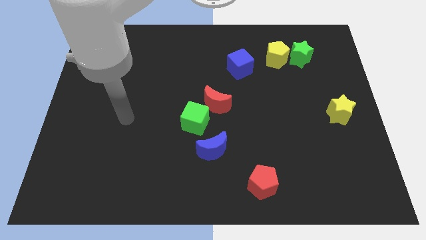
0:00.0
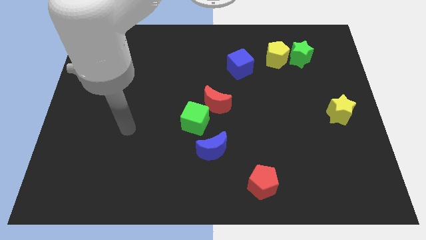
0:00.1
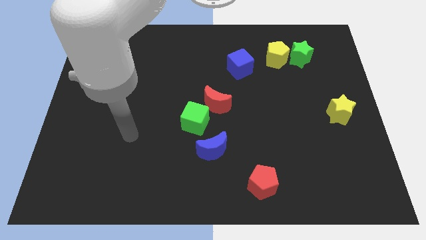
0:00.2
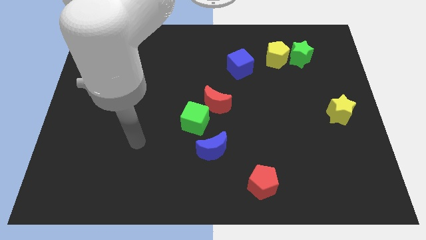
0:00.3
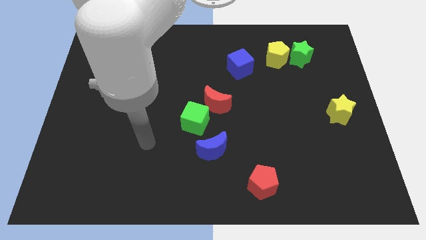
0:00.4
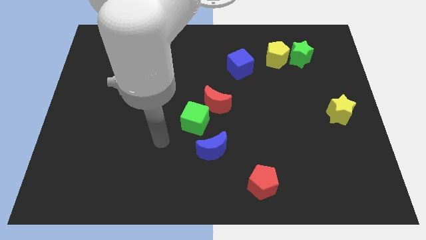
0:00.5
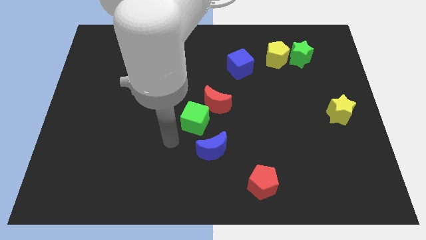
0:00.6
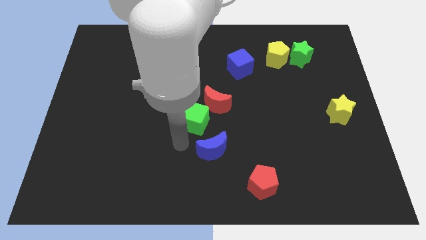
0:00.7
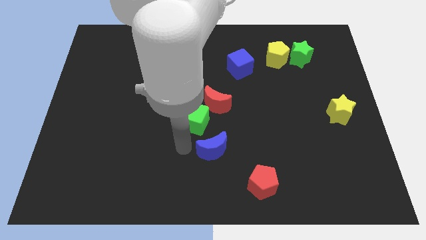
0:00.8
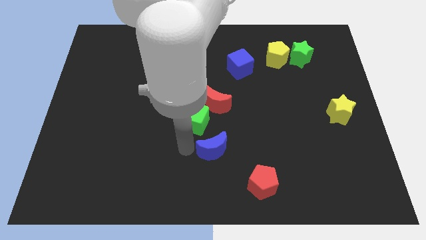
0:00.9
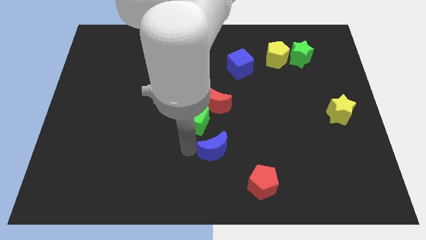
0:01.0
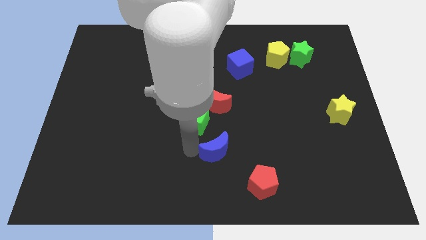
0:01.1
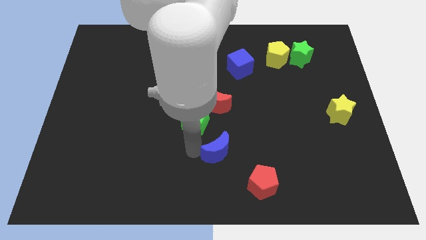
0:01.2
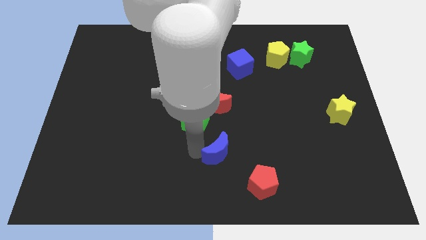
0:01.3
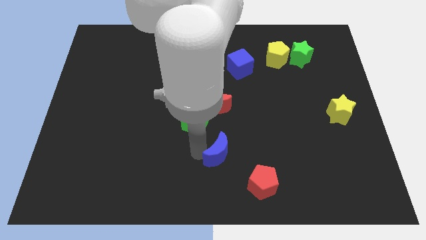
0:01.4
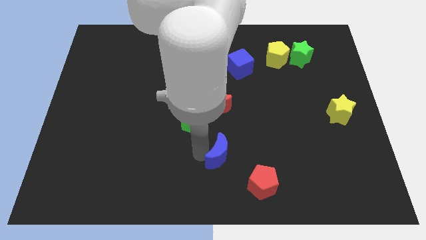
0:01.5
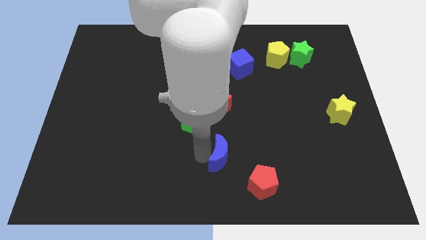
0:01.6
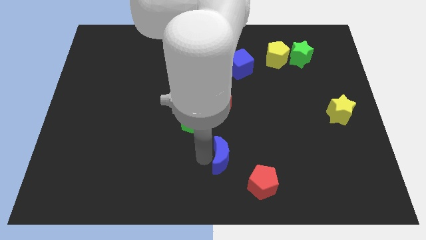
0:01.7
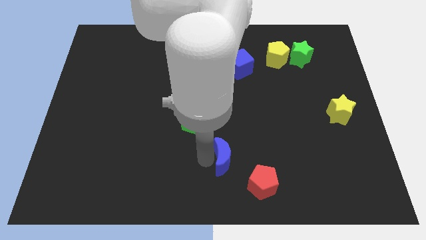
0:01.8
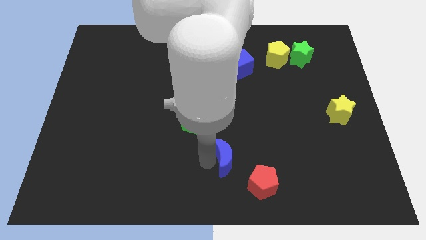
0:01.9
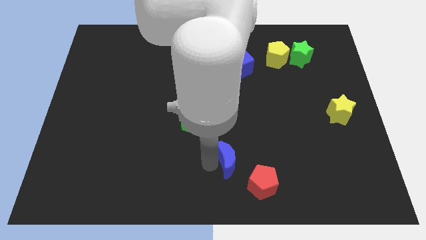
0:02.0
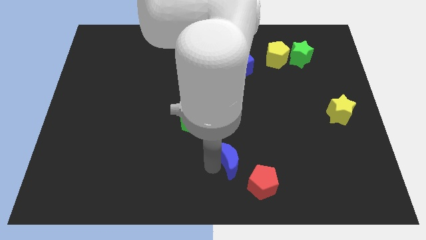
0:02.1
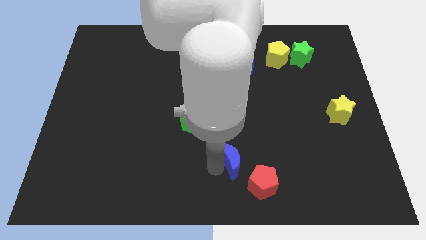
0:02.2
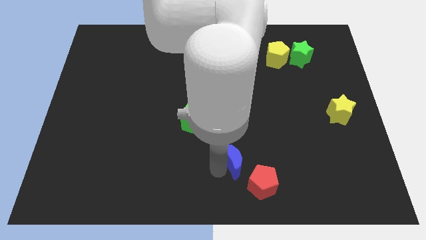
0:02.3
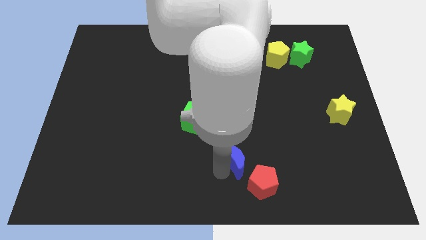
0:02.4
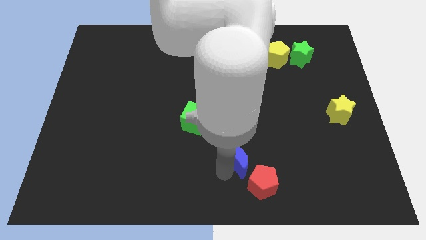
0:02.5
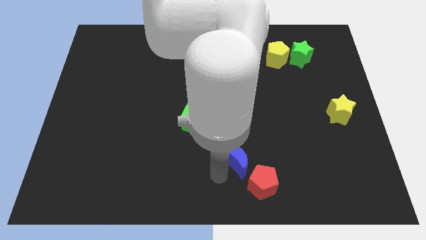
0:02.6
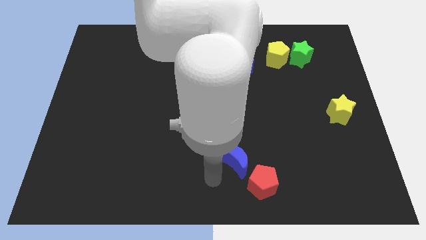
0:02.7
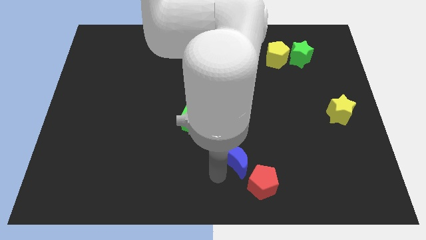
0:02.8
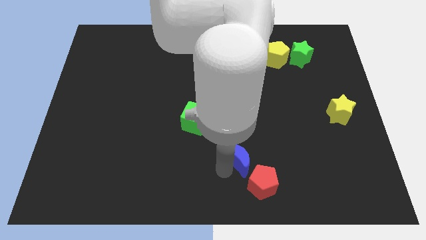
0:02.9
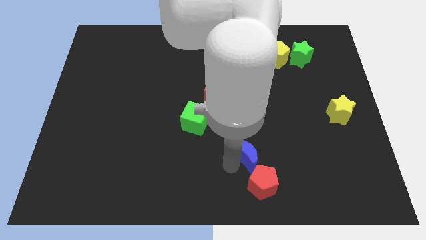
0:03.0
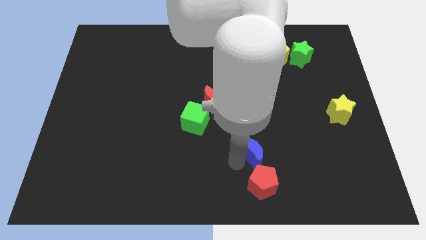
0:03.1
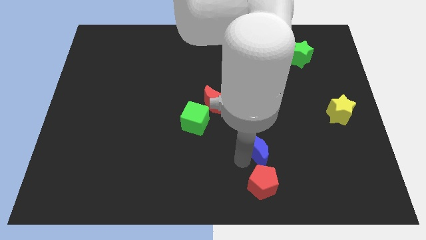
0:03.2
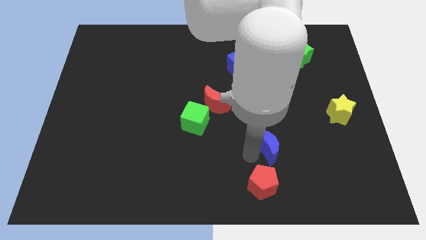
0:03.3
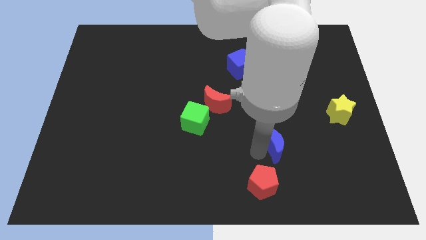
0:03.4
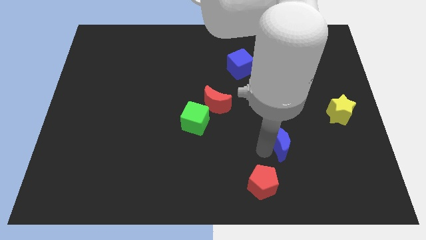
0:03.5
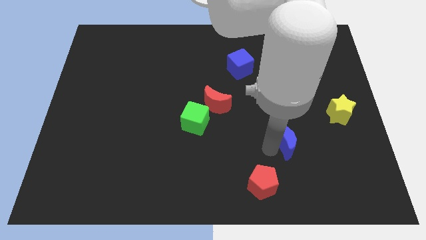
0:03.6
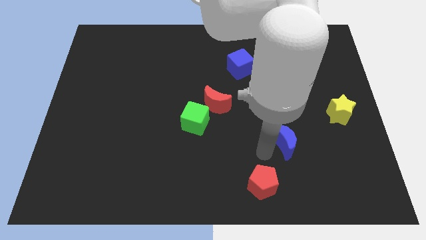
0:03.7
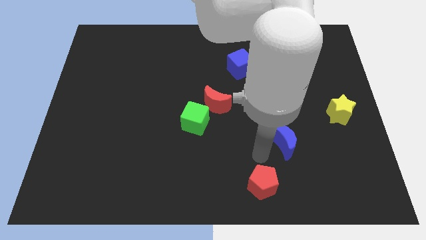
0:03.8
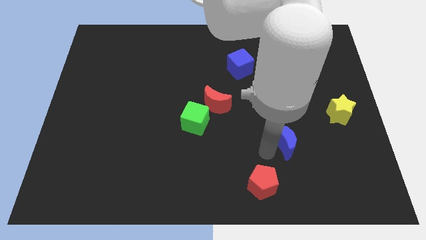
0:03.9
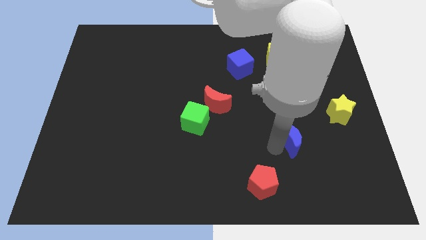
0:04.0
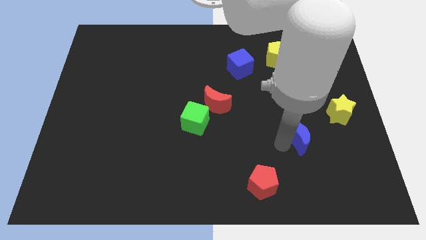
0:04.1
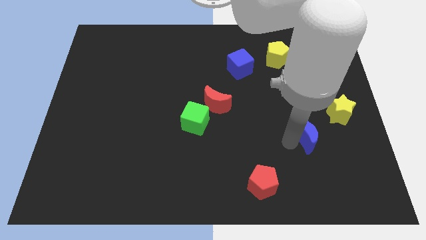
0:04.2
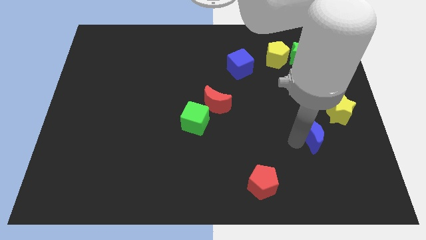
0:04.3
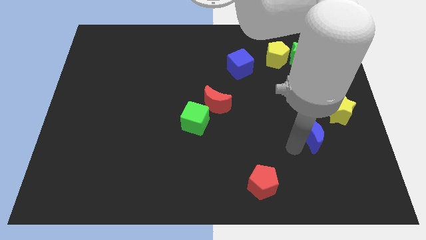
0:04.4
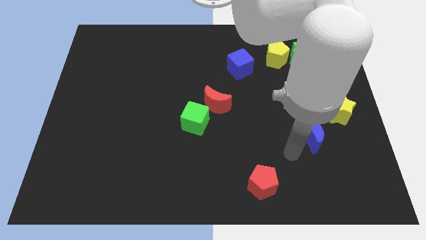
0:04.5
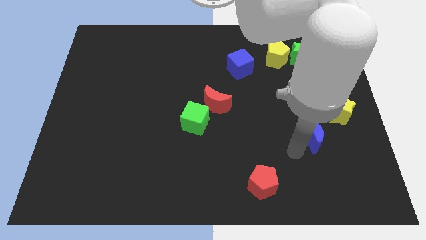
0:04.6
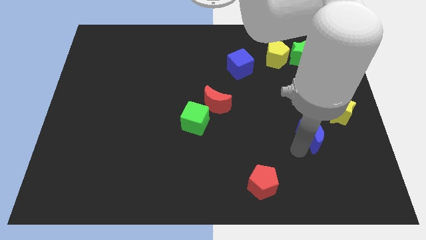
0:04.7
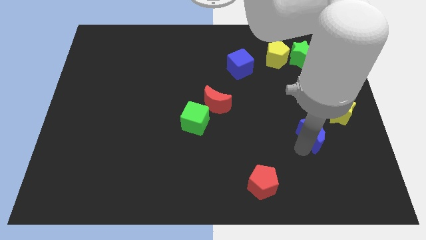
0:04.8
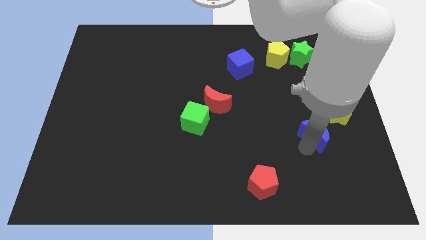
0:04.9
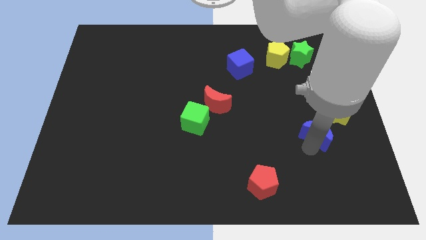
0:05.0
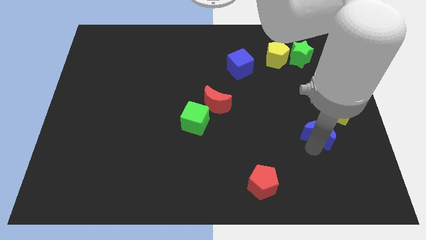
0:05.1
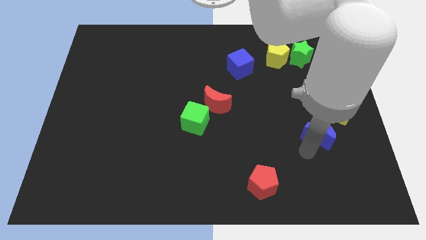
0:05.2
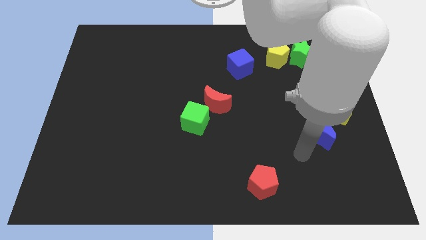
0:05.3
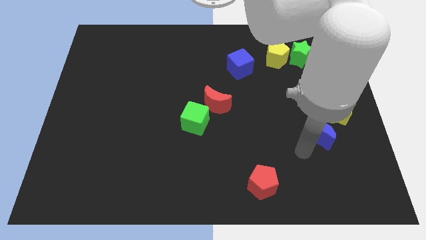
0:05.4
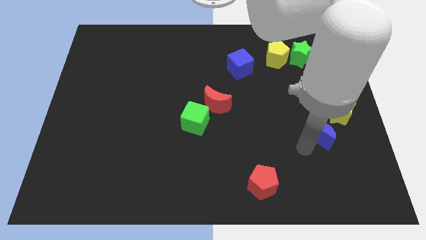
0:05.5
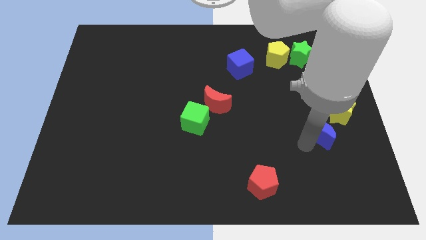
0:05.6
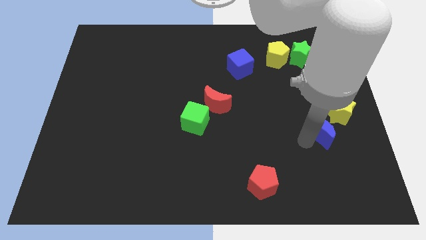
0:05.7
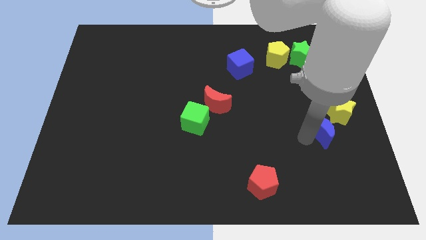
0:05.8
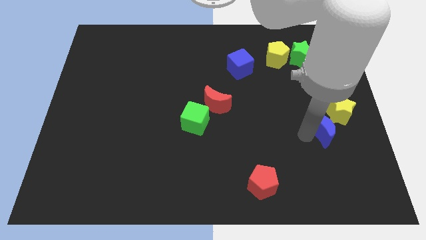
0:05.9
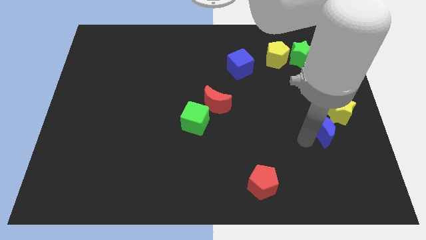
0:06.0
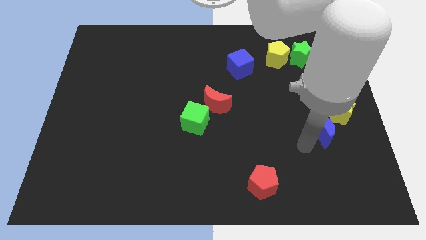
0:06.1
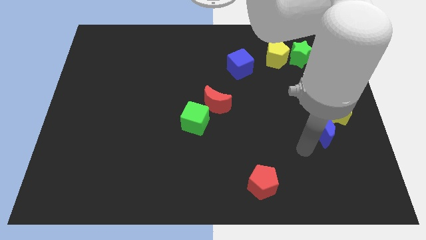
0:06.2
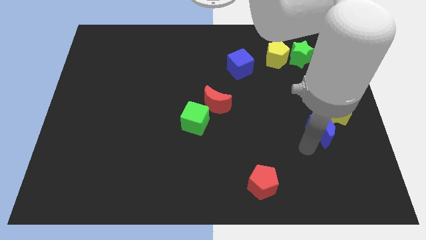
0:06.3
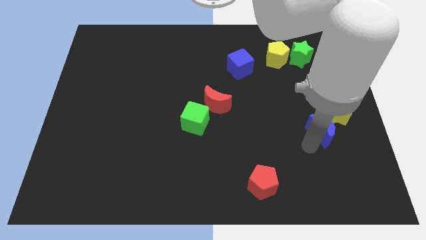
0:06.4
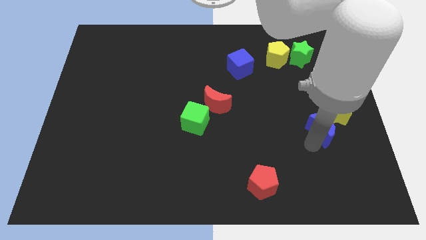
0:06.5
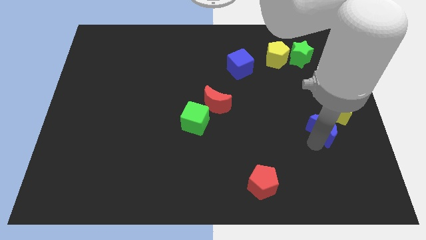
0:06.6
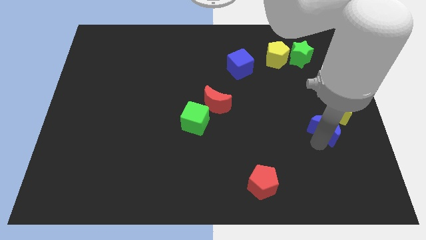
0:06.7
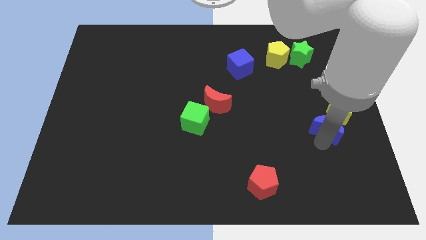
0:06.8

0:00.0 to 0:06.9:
put the blue moon next to the yellow star
